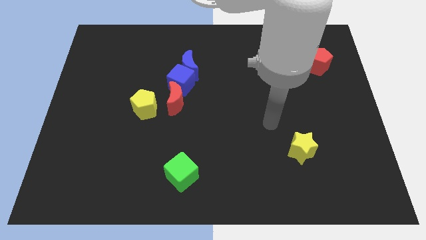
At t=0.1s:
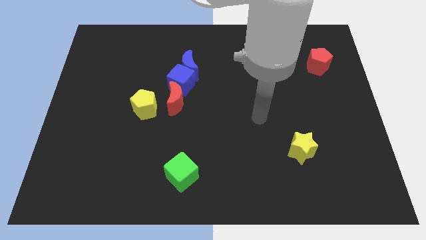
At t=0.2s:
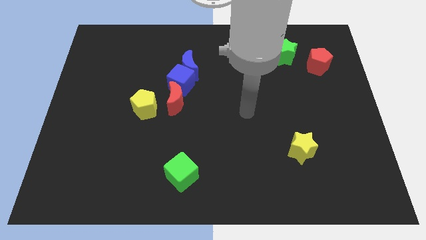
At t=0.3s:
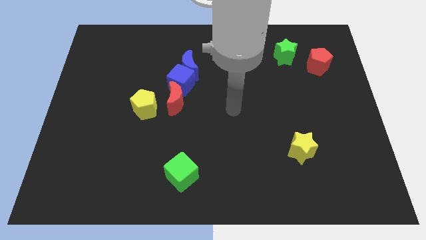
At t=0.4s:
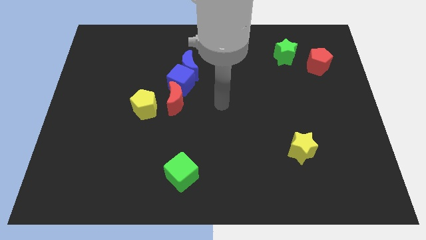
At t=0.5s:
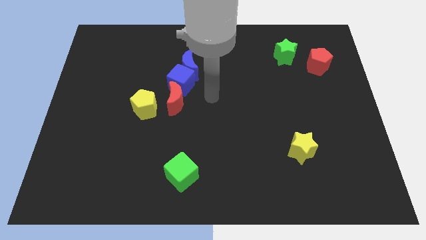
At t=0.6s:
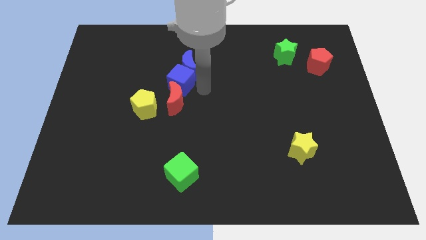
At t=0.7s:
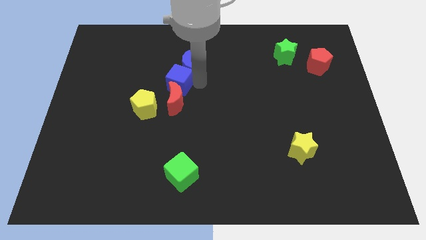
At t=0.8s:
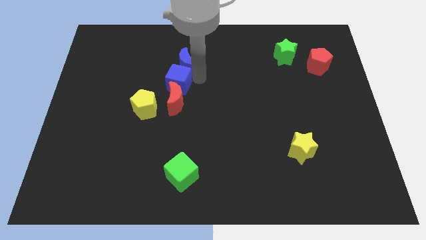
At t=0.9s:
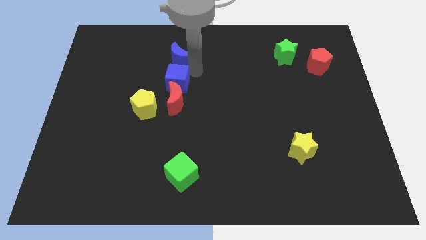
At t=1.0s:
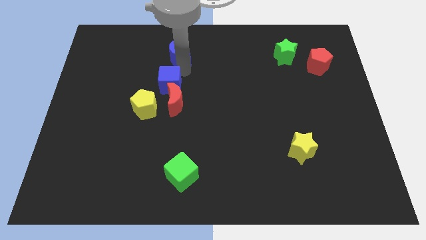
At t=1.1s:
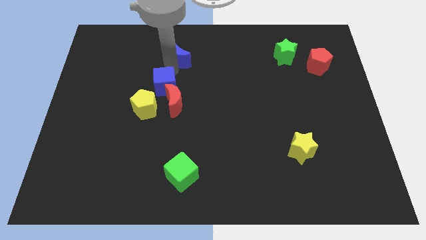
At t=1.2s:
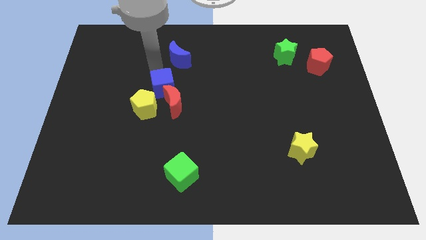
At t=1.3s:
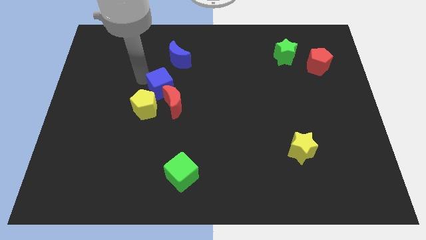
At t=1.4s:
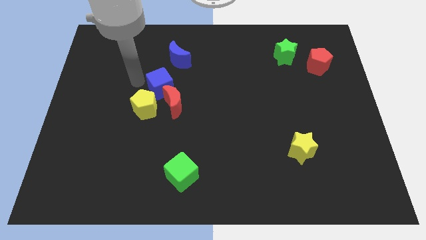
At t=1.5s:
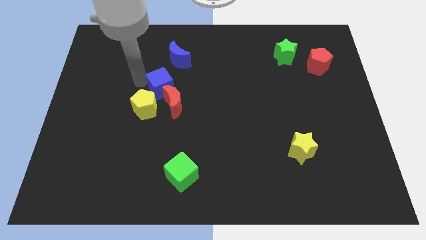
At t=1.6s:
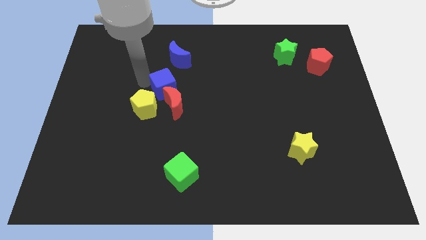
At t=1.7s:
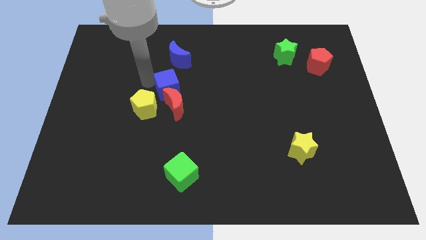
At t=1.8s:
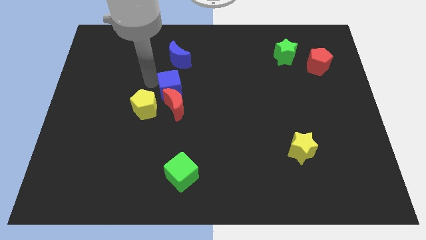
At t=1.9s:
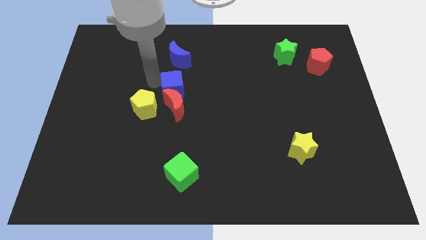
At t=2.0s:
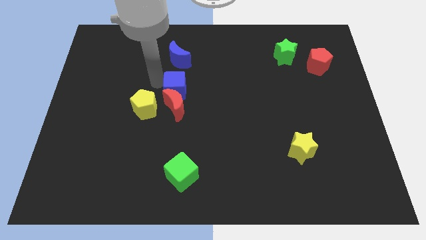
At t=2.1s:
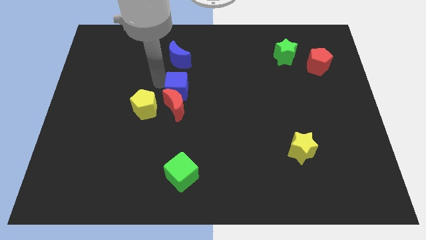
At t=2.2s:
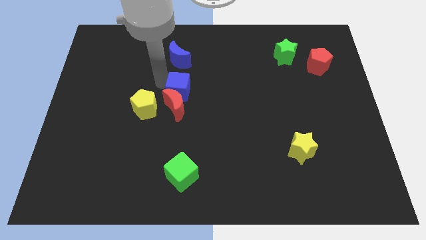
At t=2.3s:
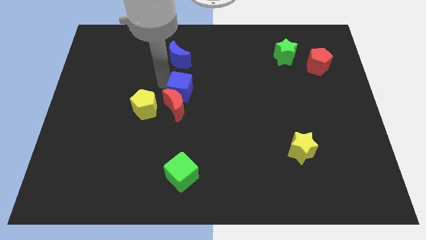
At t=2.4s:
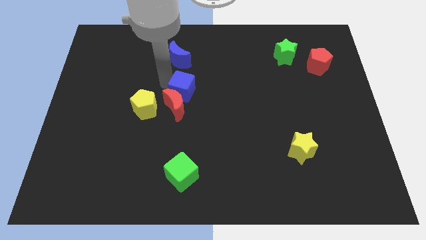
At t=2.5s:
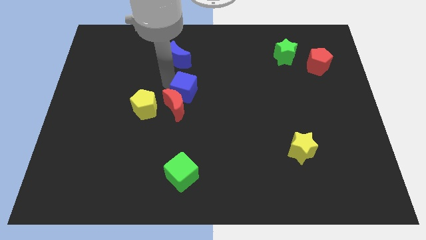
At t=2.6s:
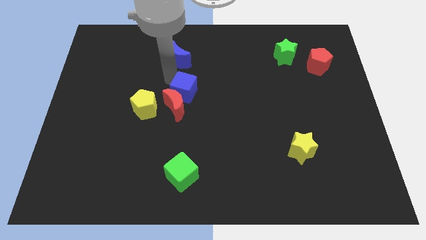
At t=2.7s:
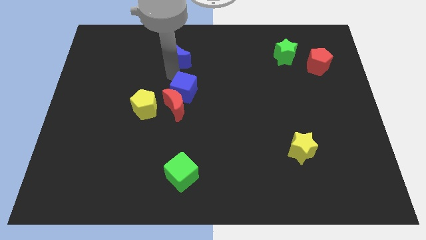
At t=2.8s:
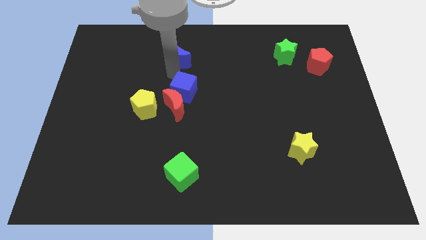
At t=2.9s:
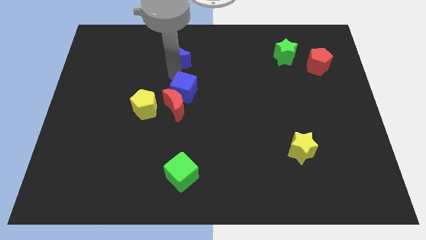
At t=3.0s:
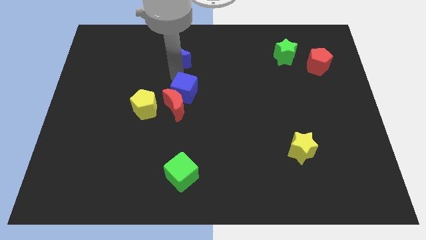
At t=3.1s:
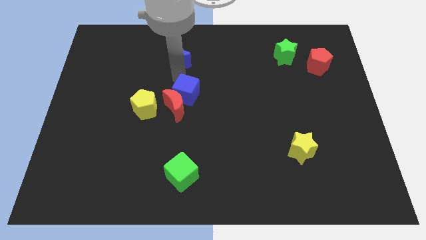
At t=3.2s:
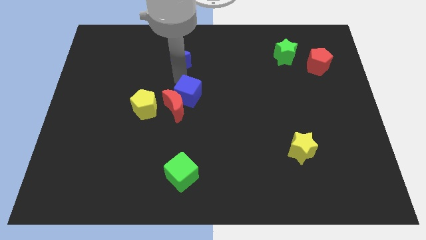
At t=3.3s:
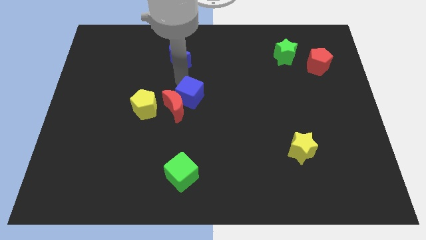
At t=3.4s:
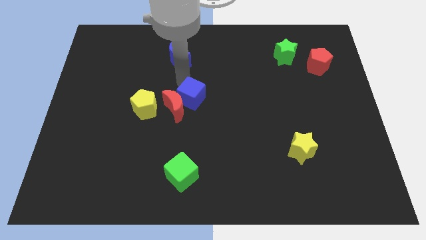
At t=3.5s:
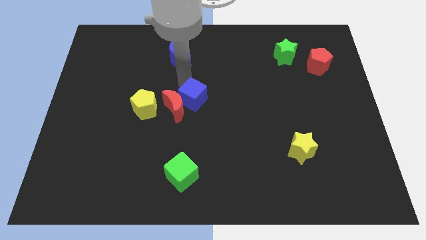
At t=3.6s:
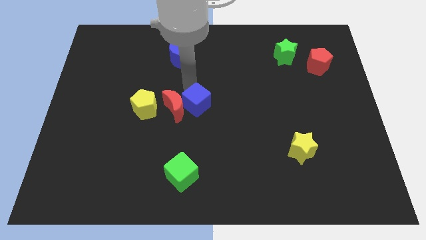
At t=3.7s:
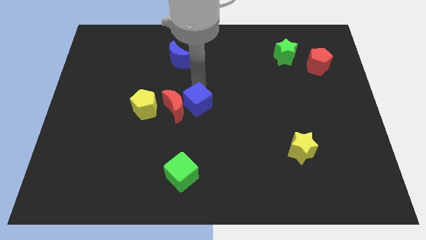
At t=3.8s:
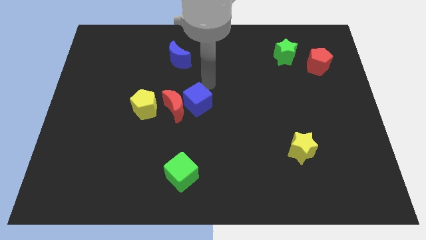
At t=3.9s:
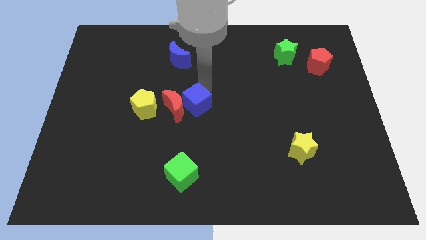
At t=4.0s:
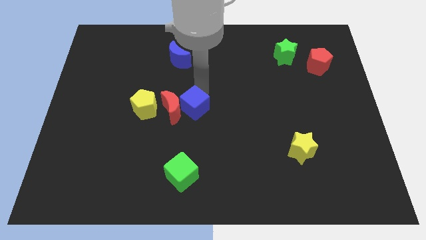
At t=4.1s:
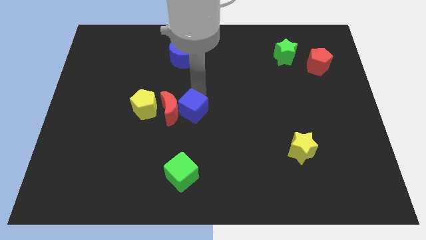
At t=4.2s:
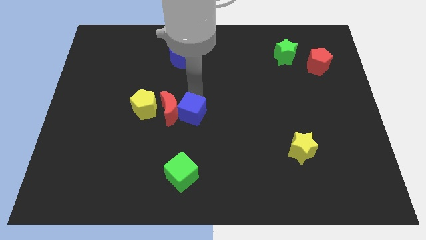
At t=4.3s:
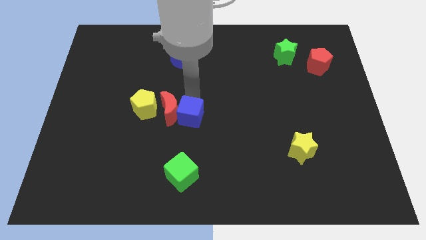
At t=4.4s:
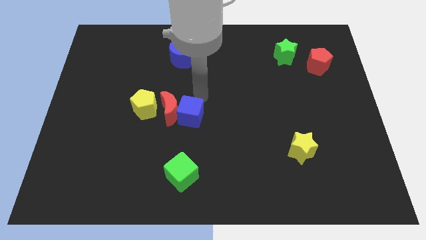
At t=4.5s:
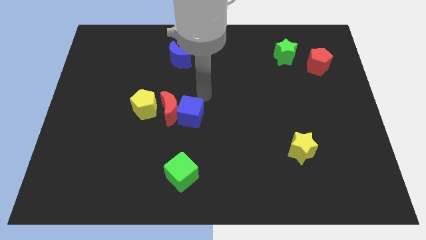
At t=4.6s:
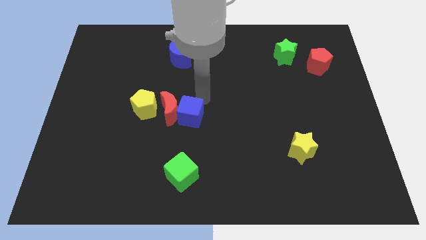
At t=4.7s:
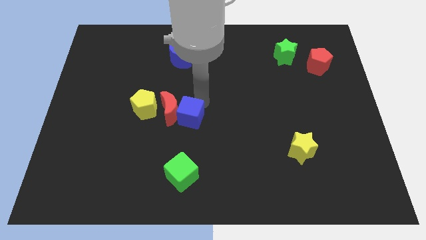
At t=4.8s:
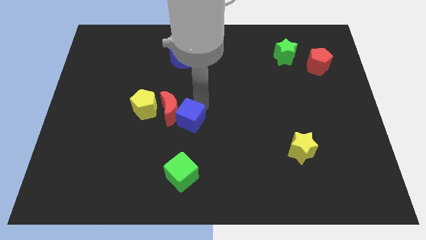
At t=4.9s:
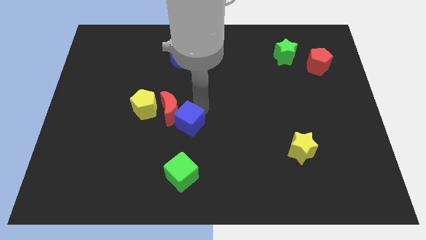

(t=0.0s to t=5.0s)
put the blue cube to the bottom of the red moon

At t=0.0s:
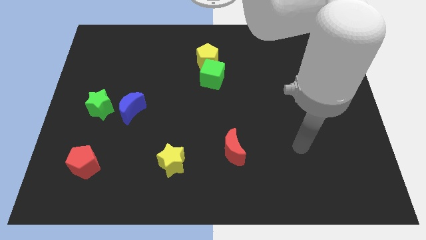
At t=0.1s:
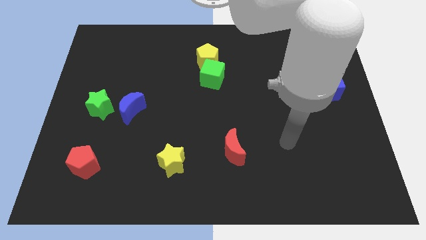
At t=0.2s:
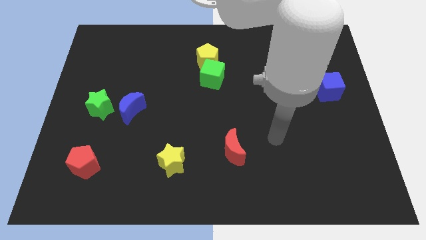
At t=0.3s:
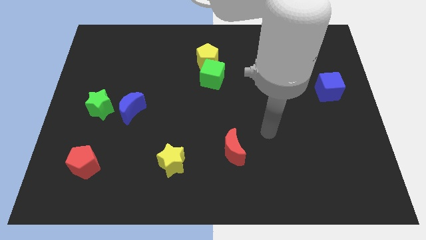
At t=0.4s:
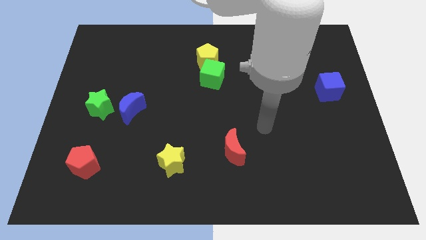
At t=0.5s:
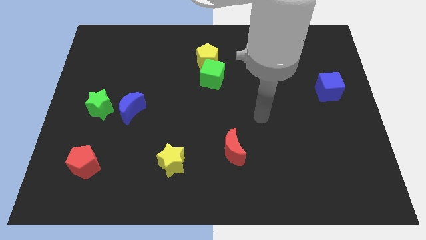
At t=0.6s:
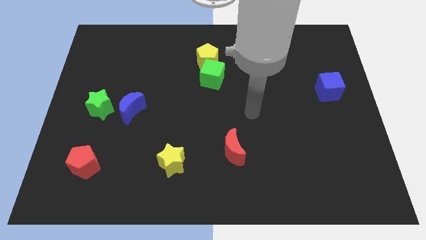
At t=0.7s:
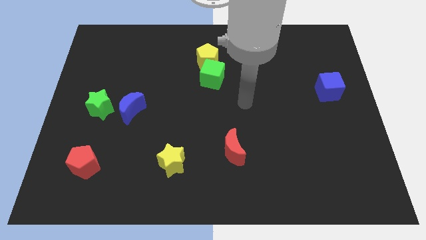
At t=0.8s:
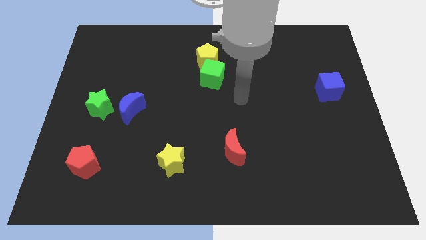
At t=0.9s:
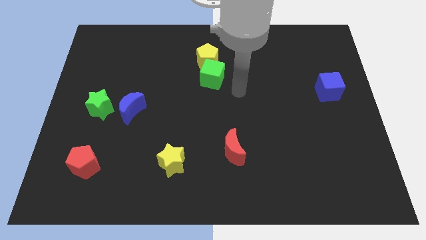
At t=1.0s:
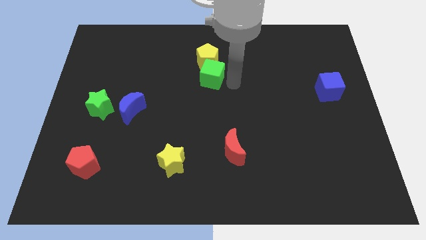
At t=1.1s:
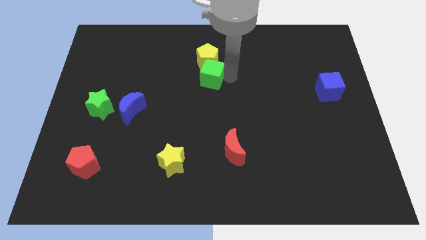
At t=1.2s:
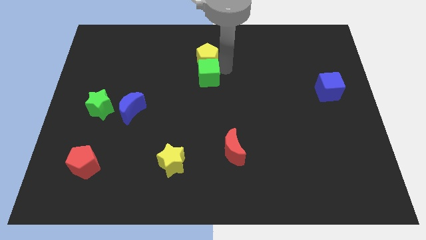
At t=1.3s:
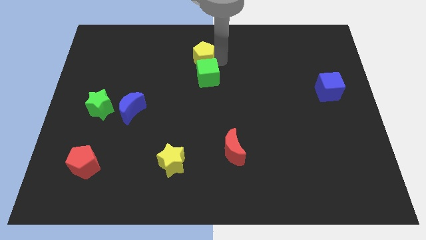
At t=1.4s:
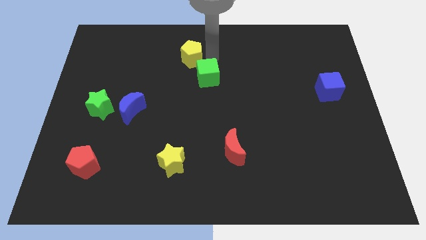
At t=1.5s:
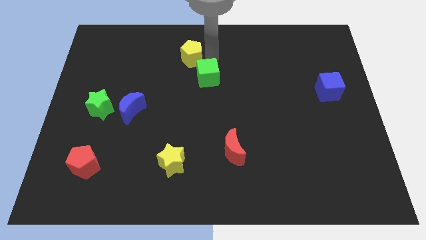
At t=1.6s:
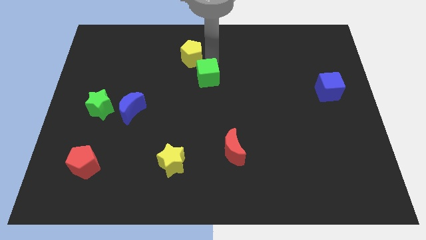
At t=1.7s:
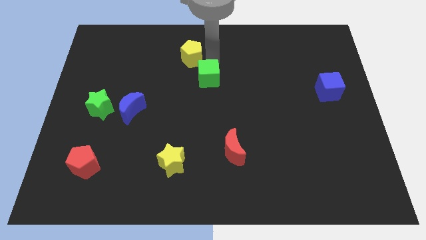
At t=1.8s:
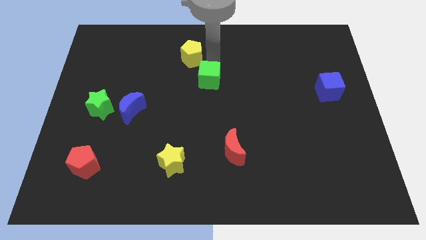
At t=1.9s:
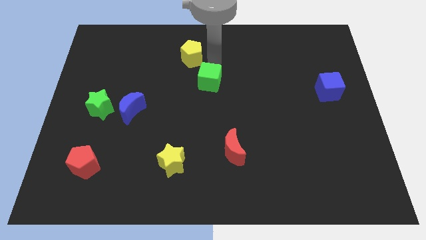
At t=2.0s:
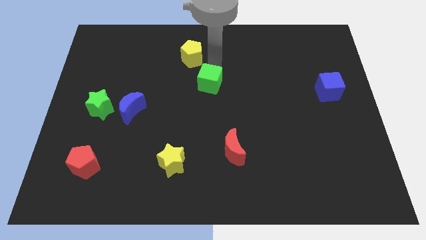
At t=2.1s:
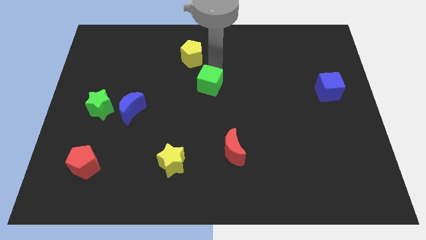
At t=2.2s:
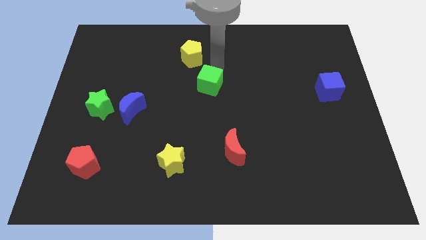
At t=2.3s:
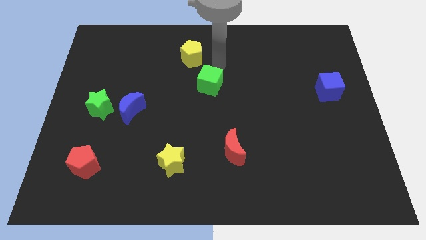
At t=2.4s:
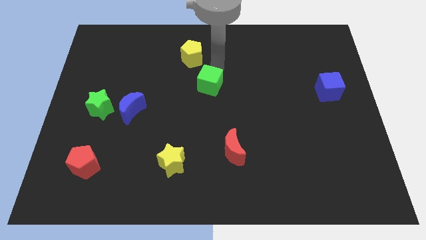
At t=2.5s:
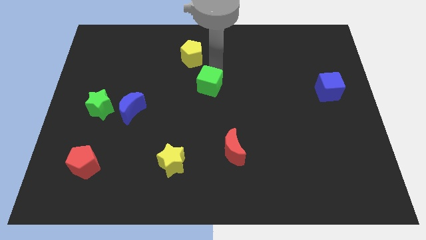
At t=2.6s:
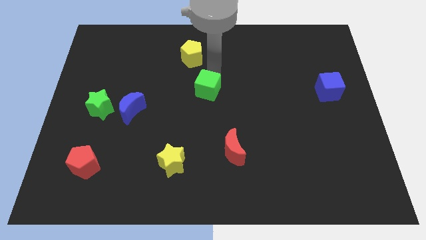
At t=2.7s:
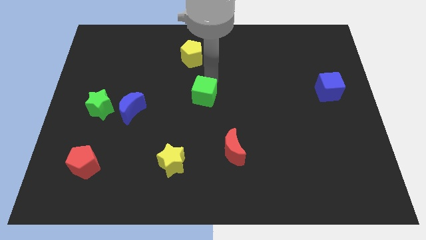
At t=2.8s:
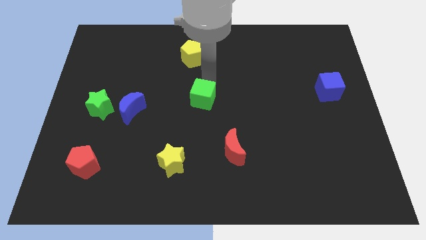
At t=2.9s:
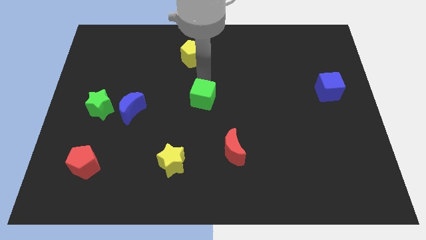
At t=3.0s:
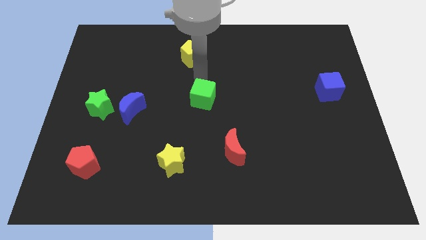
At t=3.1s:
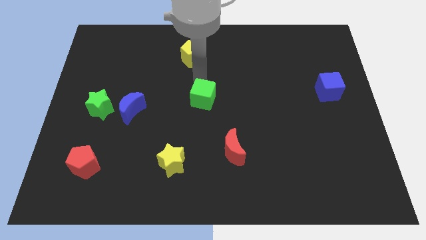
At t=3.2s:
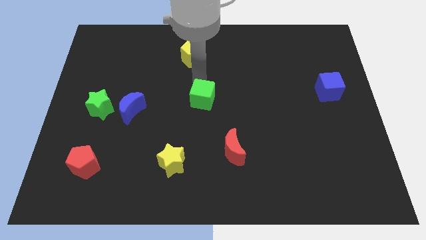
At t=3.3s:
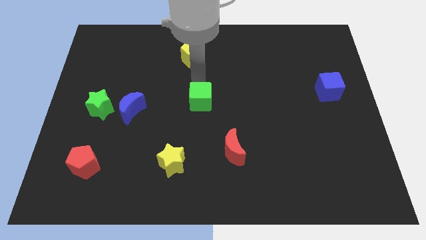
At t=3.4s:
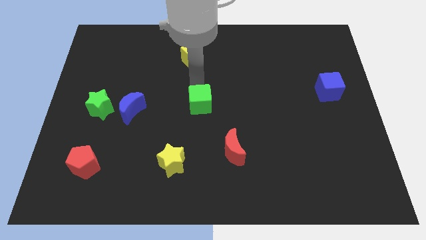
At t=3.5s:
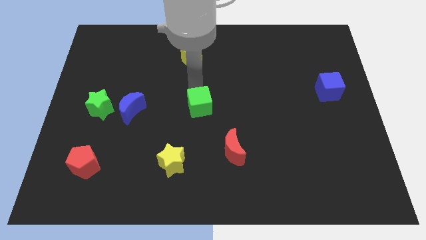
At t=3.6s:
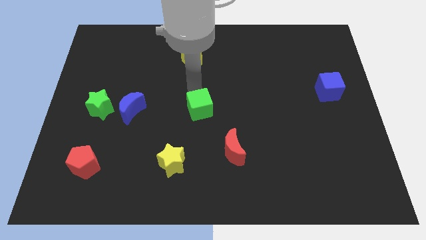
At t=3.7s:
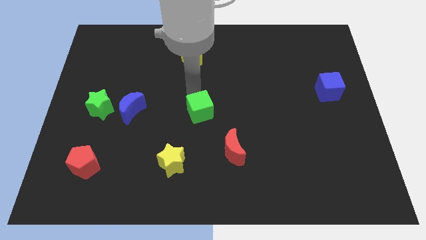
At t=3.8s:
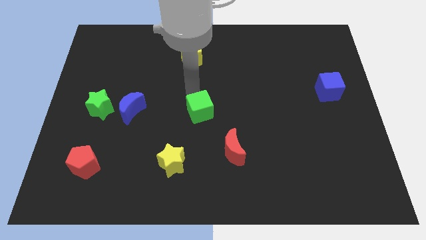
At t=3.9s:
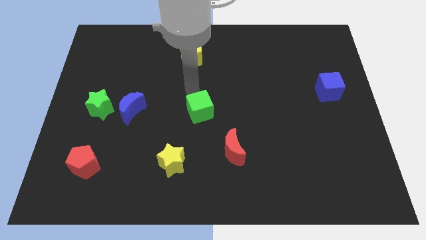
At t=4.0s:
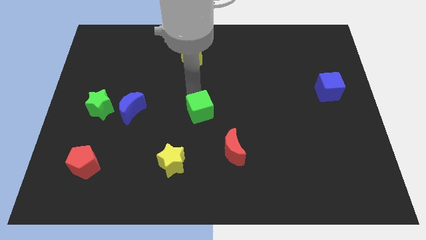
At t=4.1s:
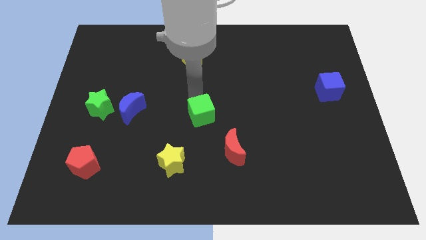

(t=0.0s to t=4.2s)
slide the green cube diagonally up and to the left of the red moon
